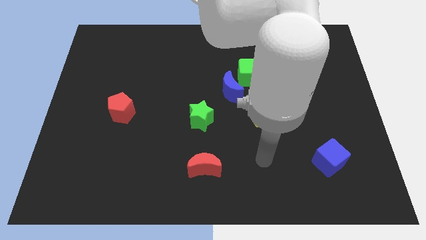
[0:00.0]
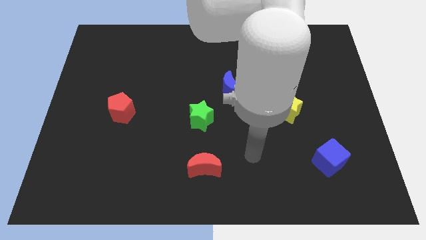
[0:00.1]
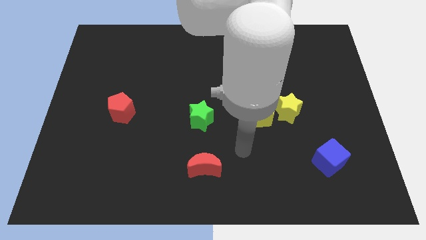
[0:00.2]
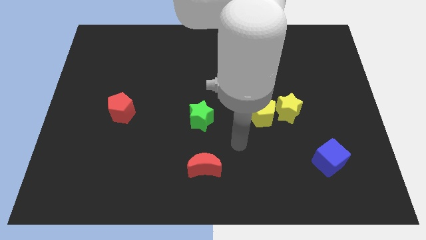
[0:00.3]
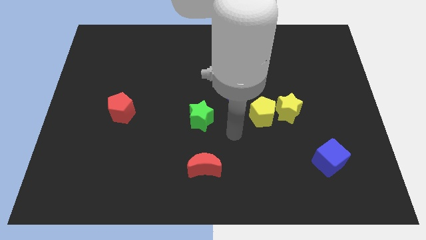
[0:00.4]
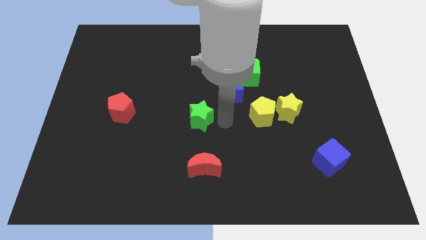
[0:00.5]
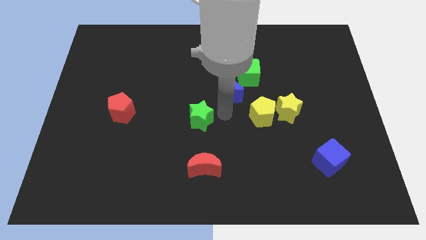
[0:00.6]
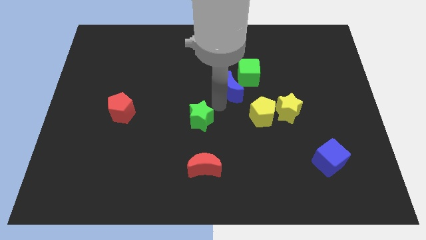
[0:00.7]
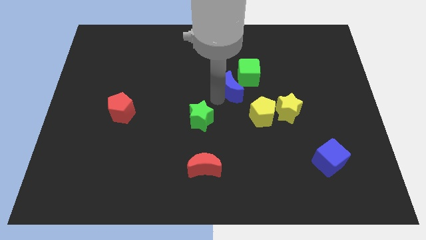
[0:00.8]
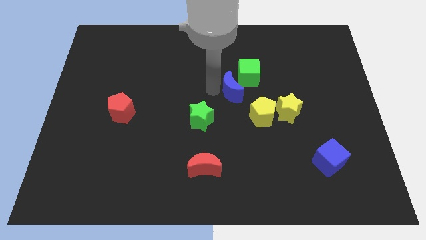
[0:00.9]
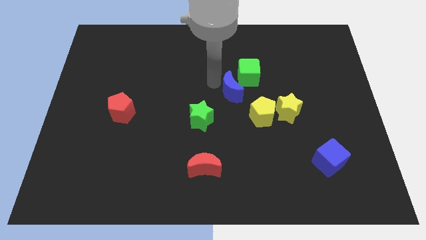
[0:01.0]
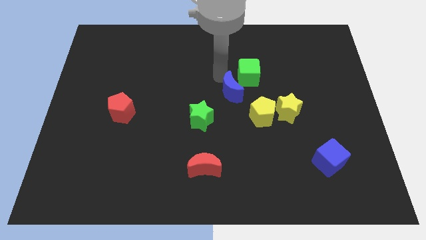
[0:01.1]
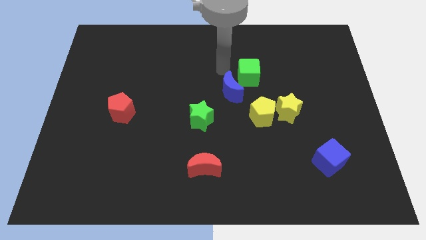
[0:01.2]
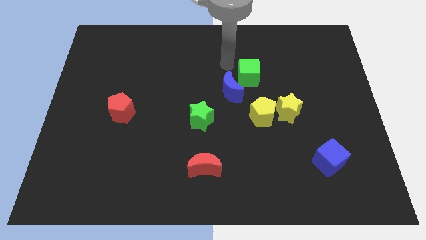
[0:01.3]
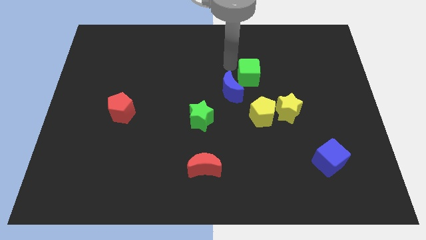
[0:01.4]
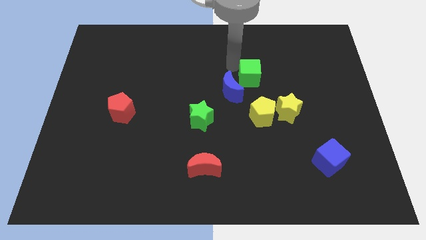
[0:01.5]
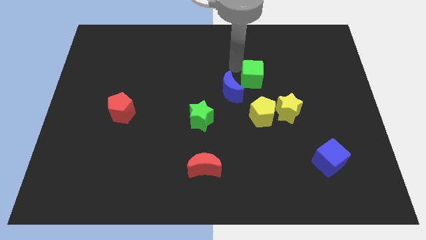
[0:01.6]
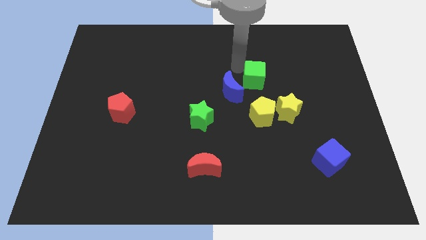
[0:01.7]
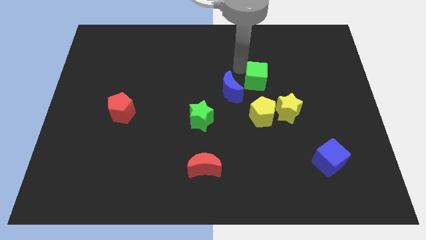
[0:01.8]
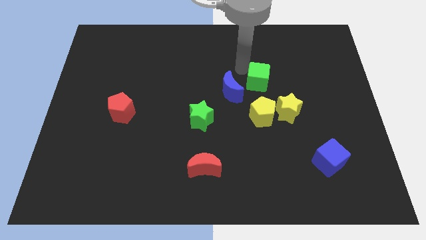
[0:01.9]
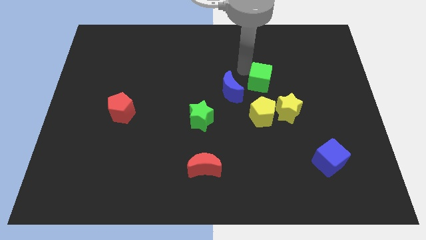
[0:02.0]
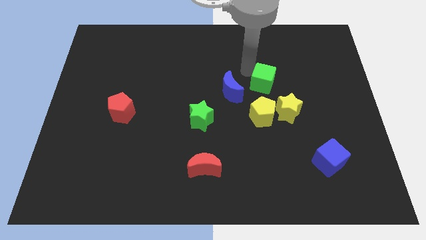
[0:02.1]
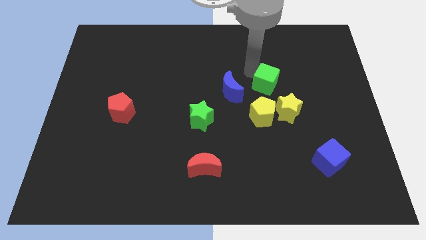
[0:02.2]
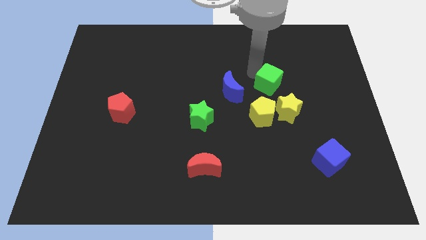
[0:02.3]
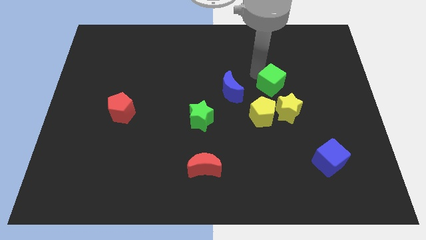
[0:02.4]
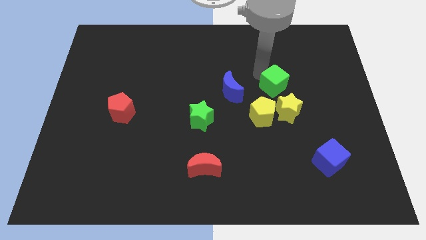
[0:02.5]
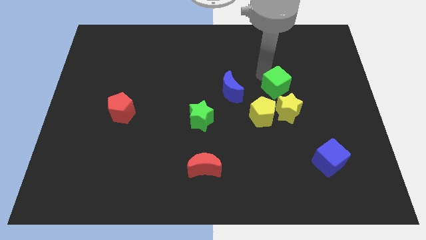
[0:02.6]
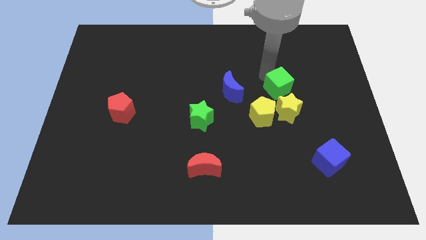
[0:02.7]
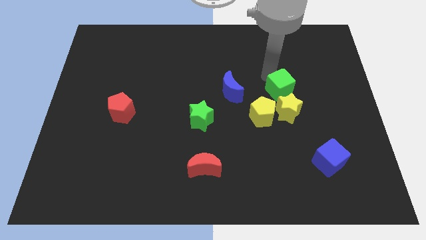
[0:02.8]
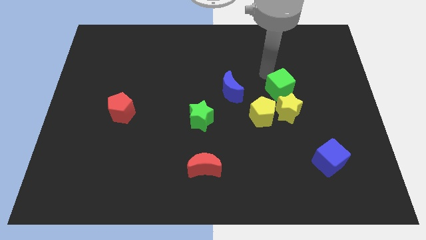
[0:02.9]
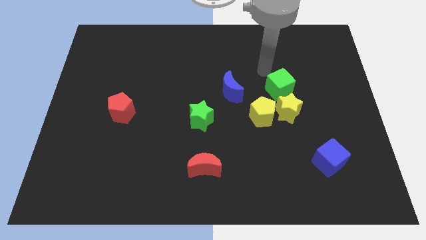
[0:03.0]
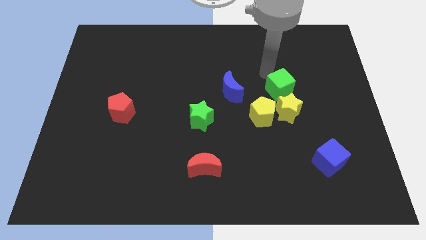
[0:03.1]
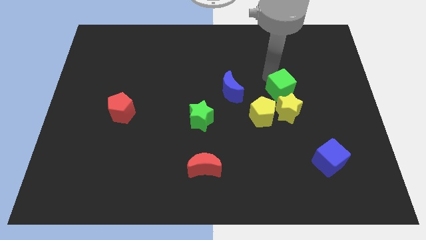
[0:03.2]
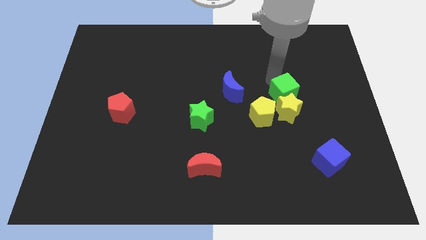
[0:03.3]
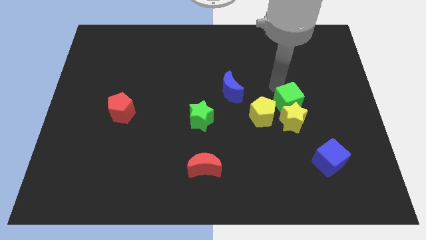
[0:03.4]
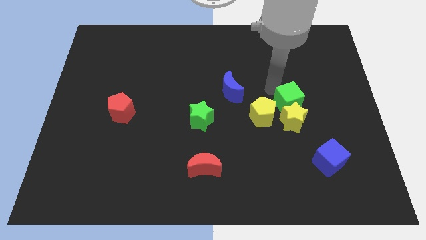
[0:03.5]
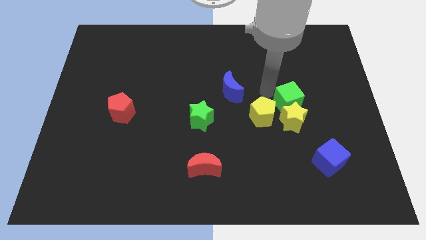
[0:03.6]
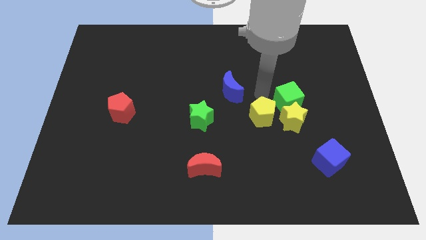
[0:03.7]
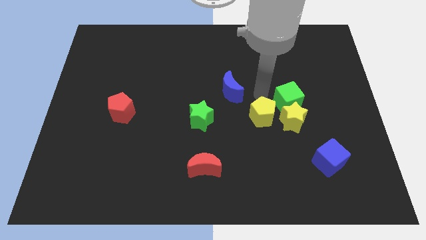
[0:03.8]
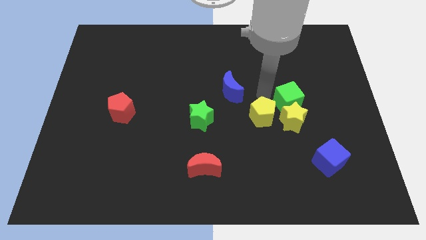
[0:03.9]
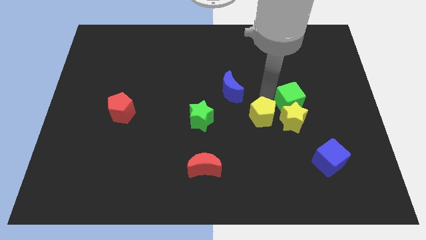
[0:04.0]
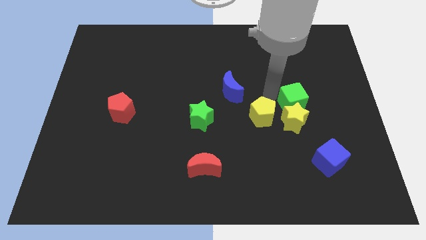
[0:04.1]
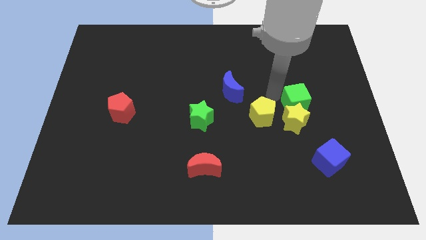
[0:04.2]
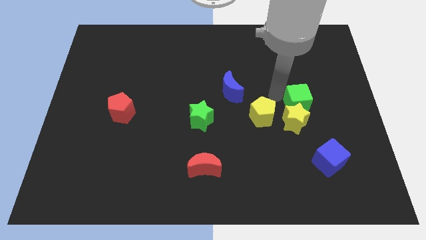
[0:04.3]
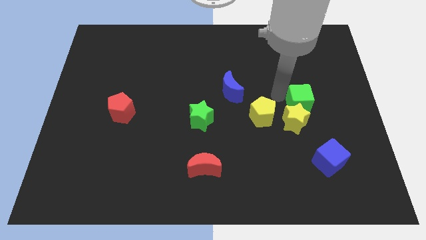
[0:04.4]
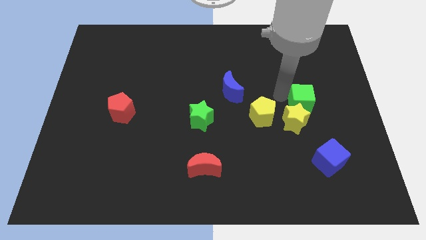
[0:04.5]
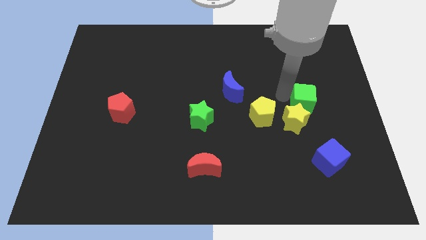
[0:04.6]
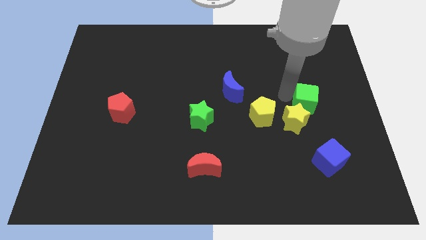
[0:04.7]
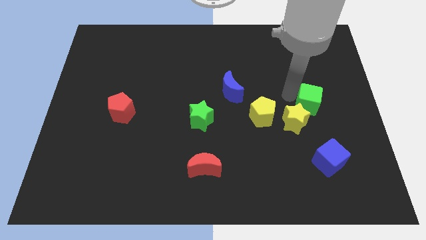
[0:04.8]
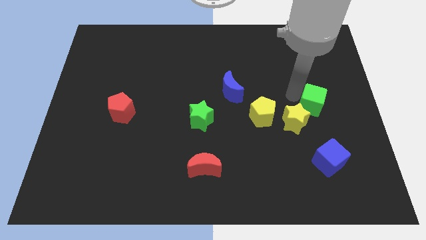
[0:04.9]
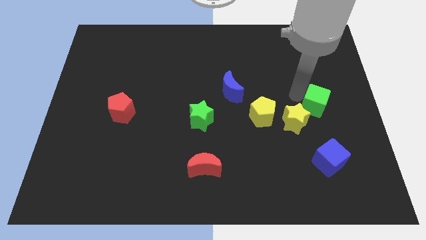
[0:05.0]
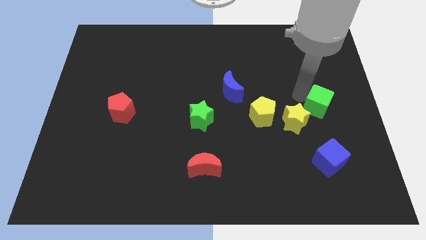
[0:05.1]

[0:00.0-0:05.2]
move the green cube to the right side of the yellow star

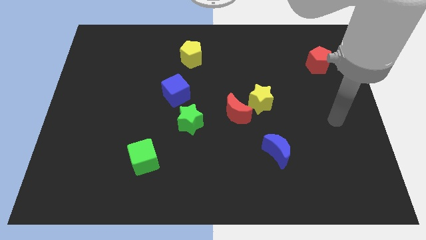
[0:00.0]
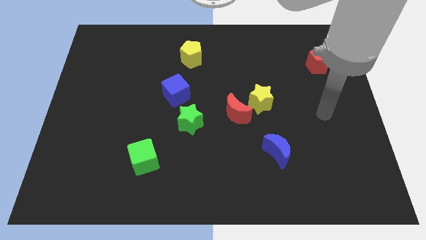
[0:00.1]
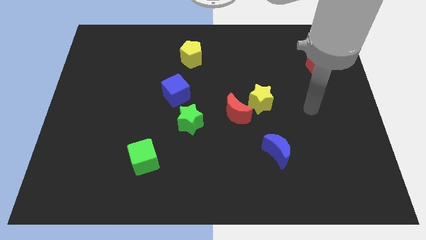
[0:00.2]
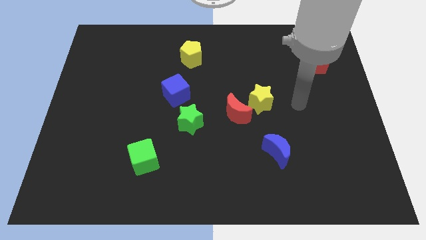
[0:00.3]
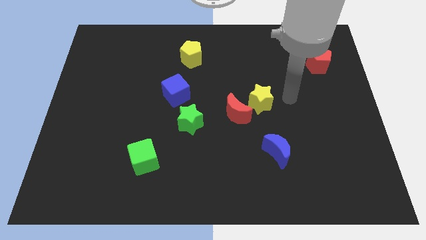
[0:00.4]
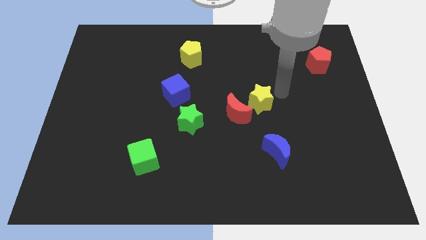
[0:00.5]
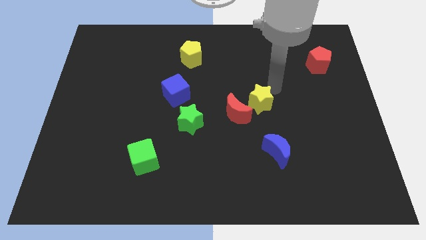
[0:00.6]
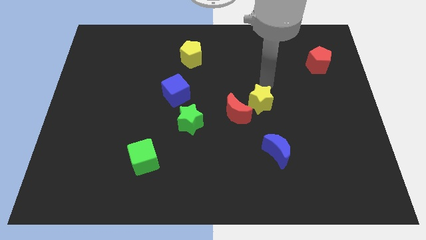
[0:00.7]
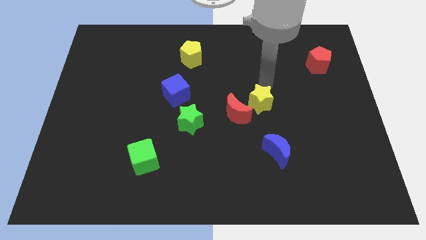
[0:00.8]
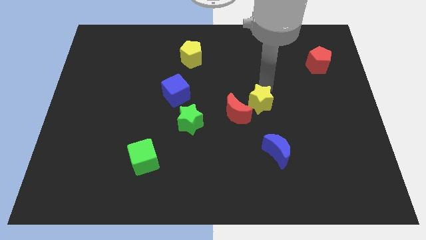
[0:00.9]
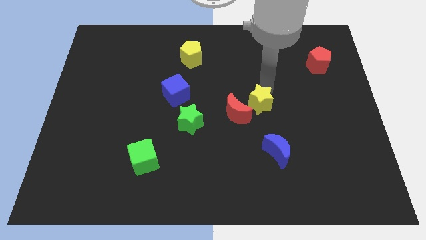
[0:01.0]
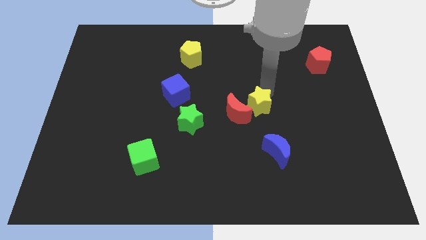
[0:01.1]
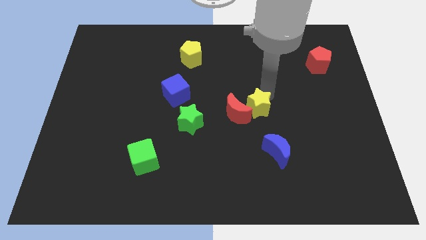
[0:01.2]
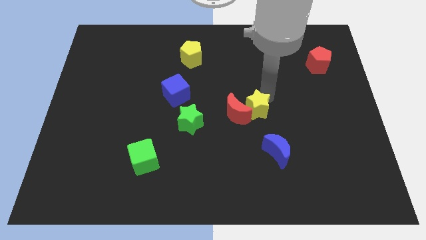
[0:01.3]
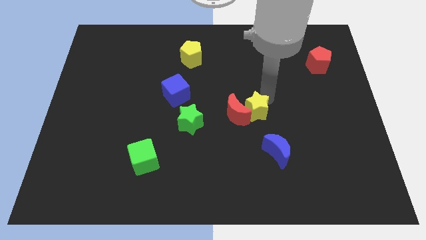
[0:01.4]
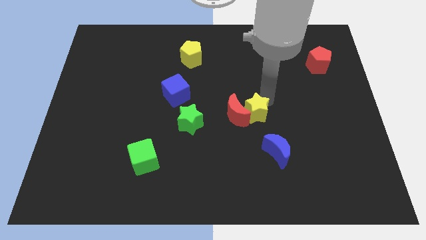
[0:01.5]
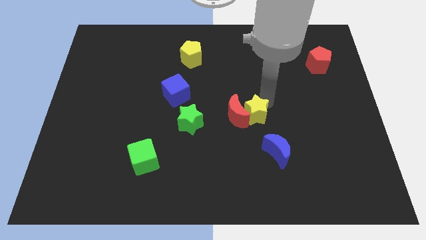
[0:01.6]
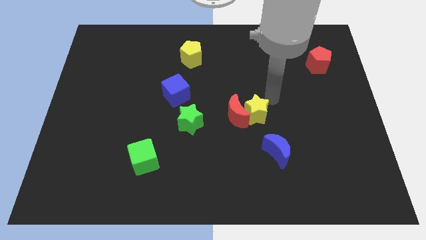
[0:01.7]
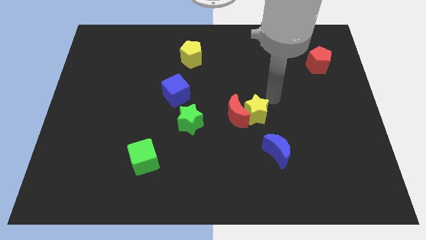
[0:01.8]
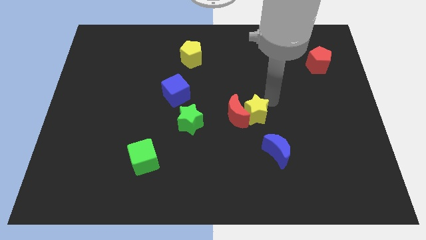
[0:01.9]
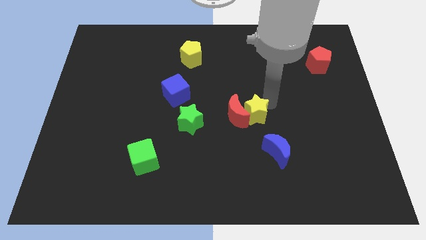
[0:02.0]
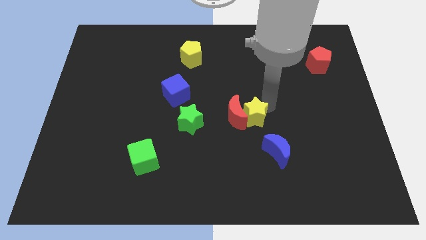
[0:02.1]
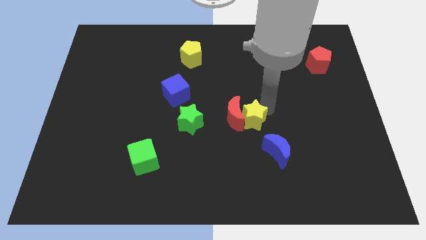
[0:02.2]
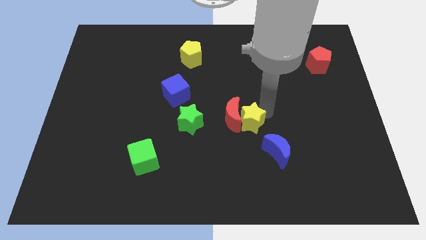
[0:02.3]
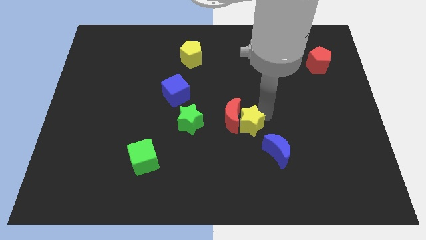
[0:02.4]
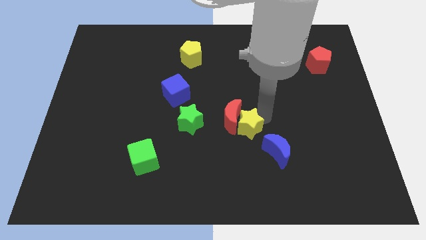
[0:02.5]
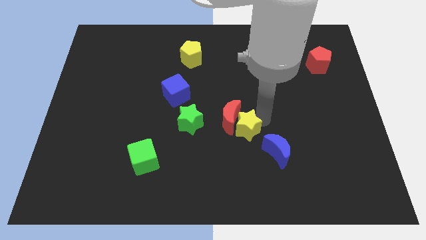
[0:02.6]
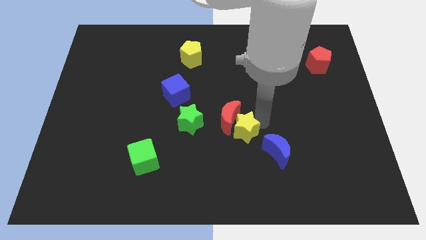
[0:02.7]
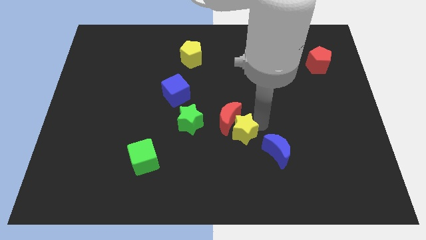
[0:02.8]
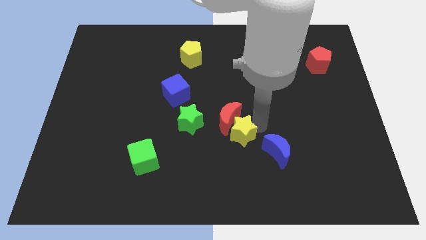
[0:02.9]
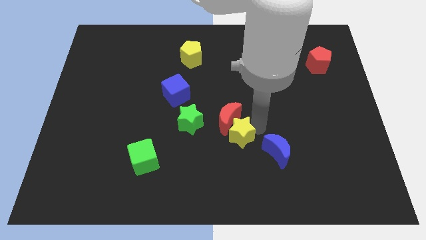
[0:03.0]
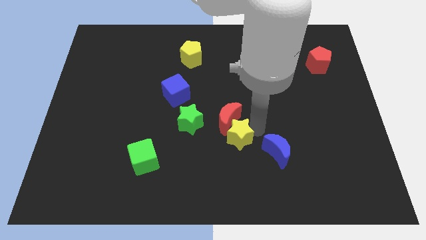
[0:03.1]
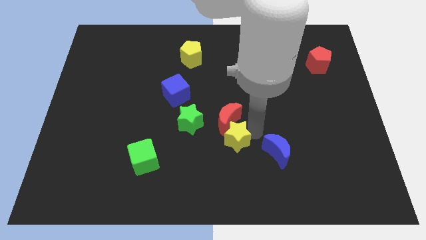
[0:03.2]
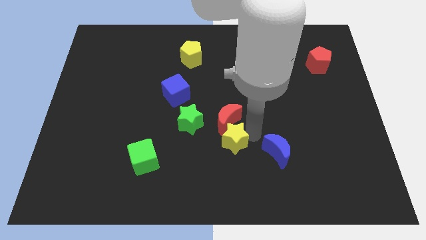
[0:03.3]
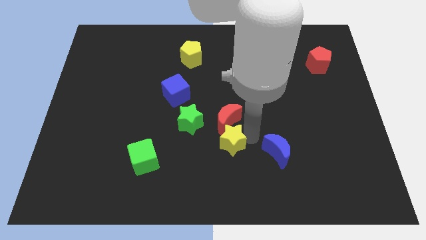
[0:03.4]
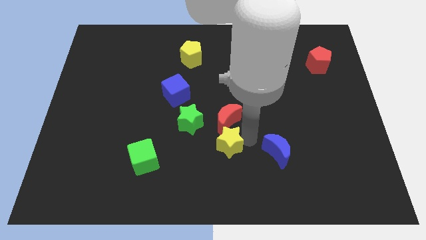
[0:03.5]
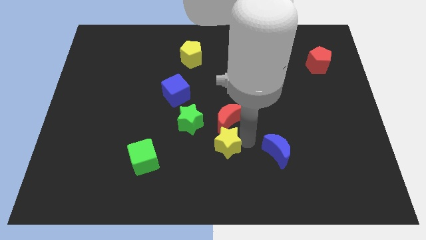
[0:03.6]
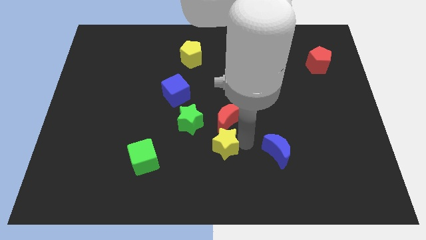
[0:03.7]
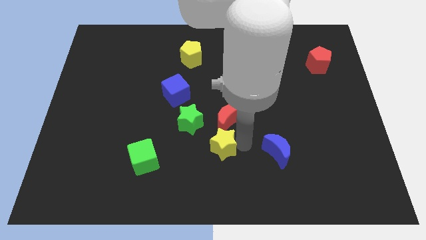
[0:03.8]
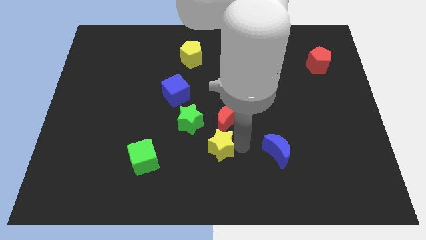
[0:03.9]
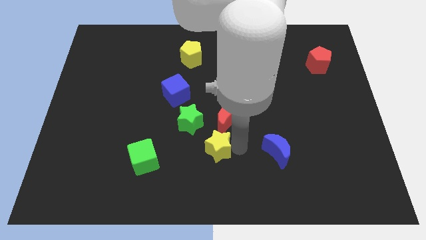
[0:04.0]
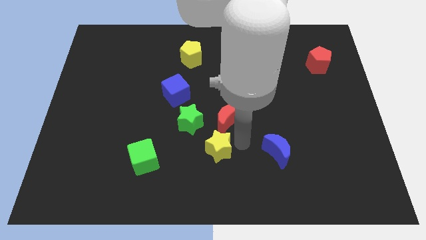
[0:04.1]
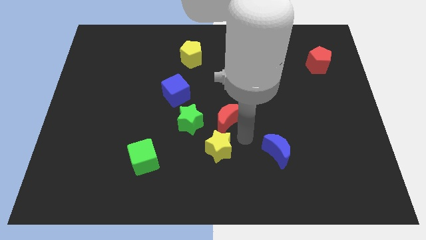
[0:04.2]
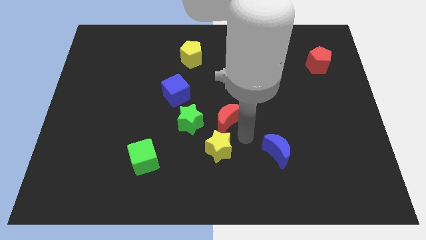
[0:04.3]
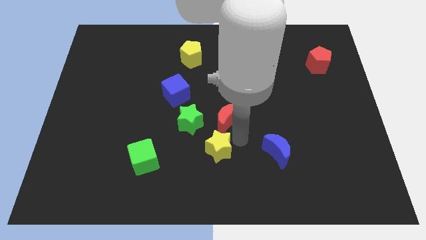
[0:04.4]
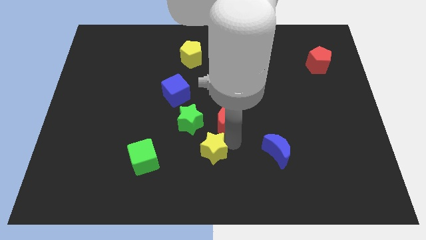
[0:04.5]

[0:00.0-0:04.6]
slide the yellow star to the right of the green cube
